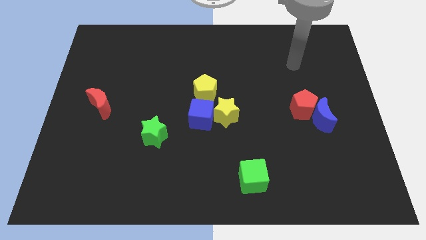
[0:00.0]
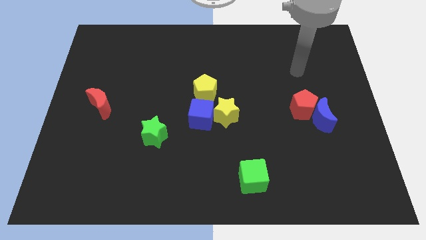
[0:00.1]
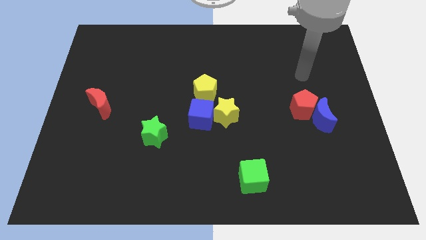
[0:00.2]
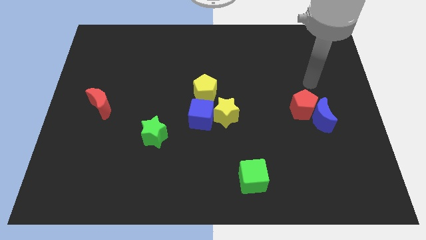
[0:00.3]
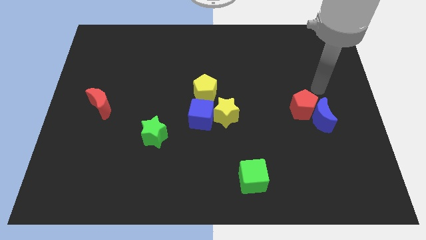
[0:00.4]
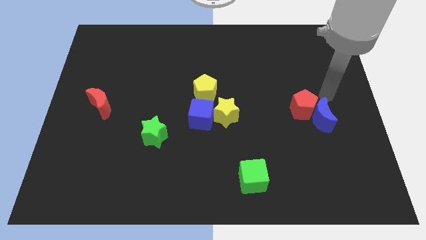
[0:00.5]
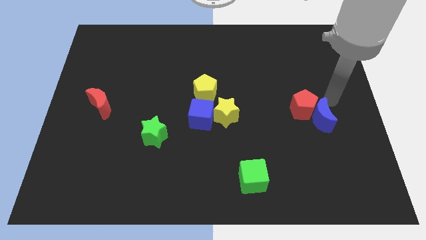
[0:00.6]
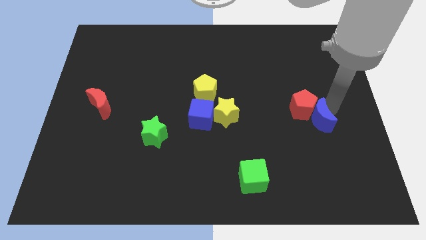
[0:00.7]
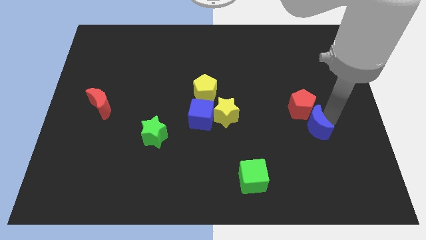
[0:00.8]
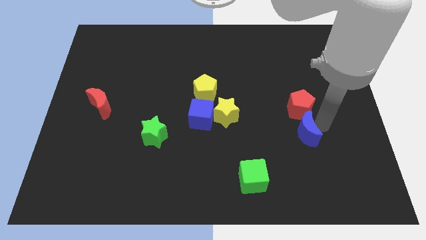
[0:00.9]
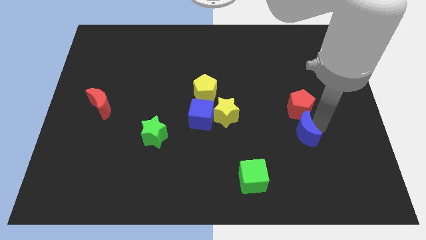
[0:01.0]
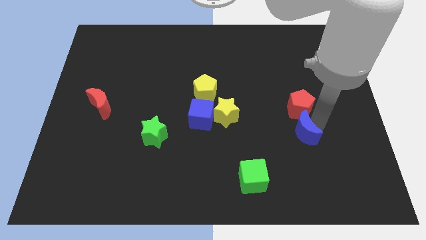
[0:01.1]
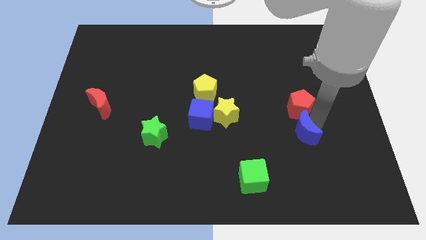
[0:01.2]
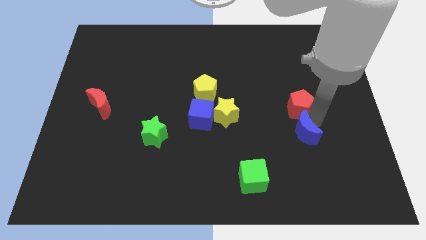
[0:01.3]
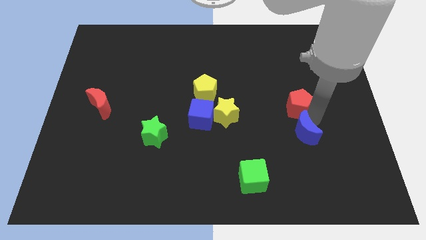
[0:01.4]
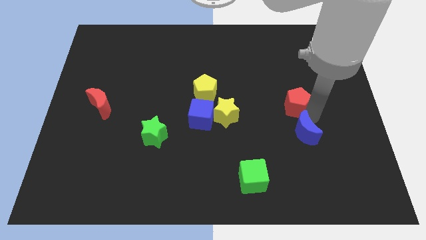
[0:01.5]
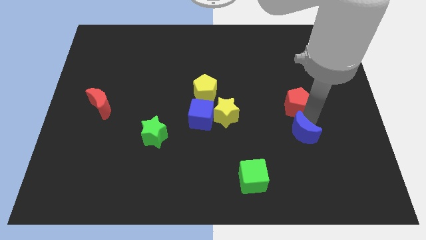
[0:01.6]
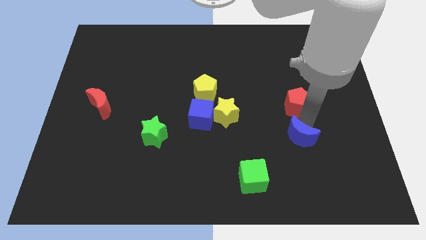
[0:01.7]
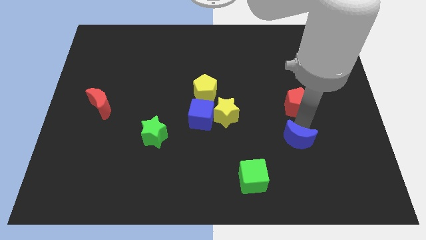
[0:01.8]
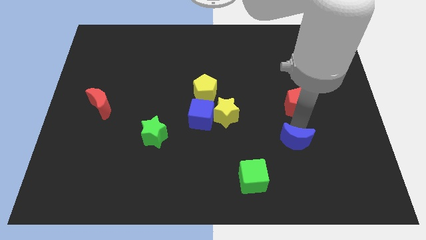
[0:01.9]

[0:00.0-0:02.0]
pull the red pentagon apart from the blue moon

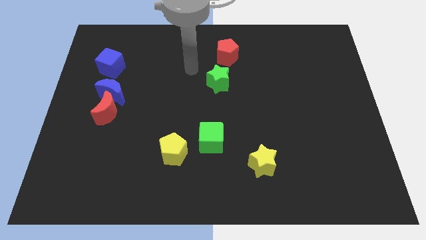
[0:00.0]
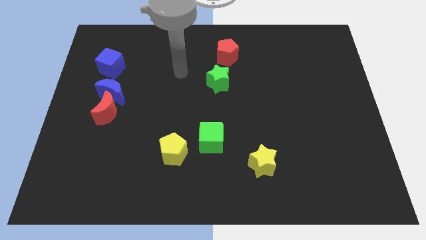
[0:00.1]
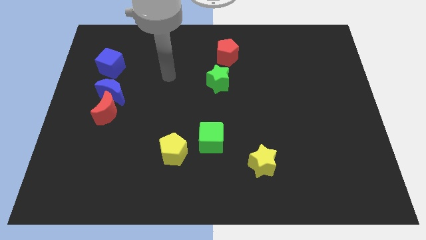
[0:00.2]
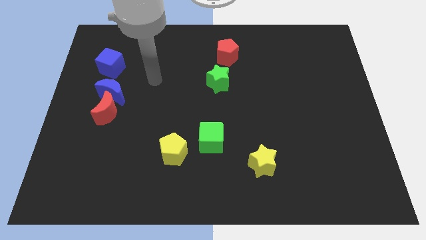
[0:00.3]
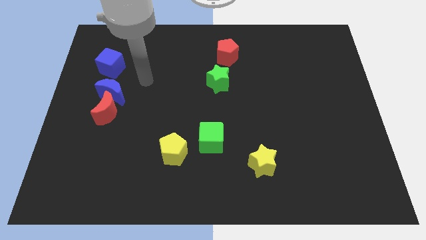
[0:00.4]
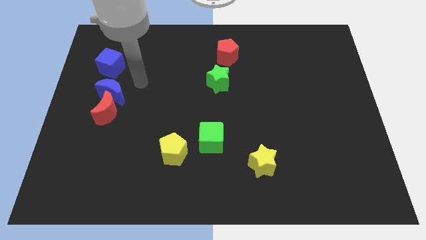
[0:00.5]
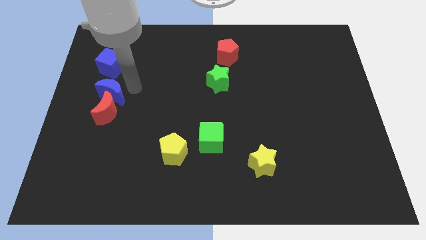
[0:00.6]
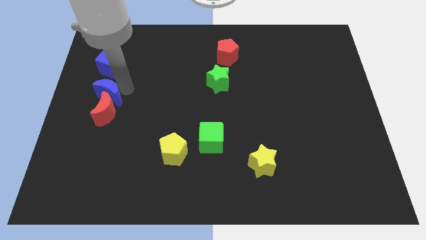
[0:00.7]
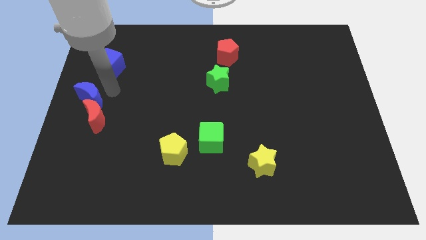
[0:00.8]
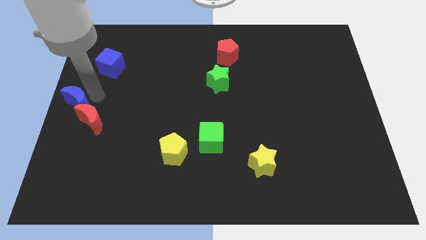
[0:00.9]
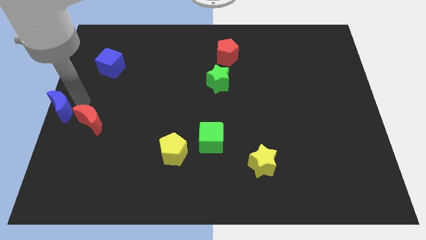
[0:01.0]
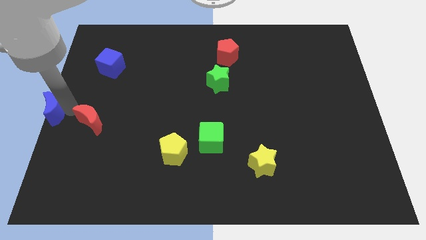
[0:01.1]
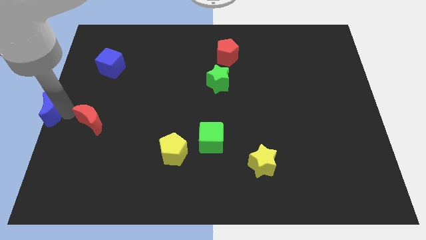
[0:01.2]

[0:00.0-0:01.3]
separate the red moon from the blue moon

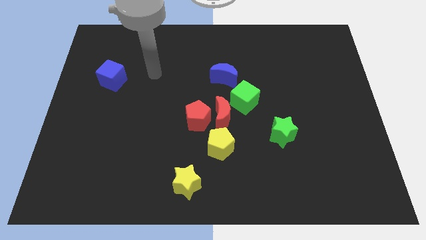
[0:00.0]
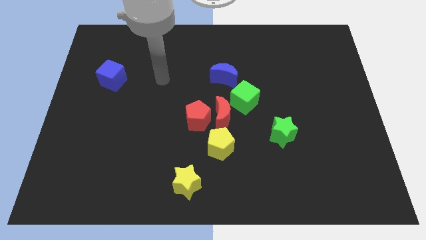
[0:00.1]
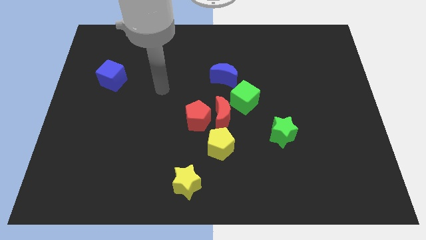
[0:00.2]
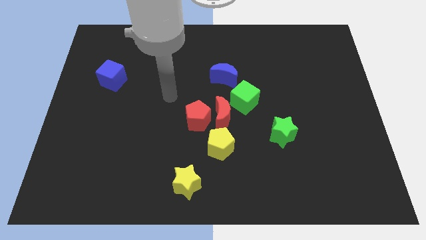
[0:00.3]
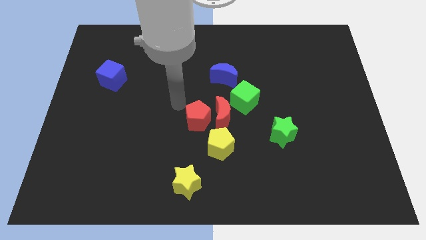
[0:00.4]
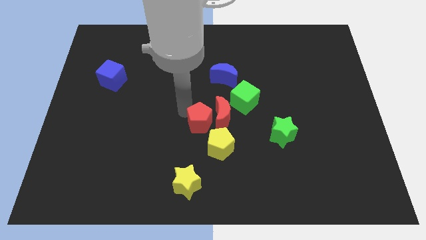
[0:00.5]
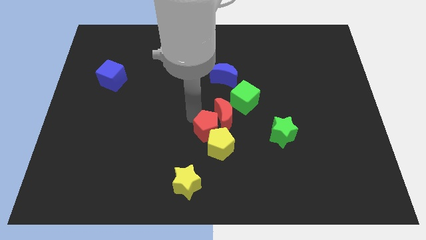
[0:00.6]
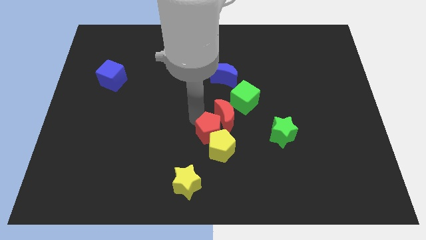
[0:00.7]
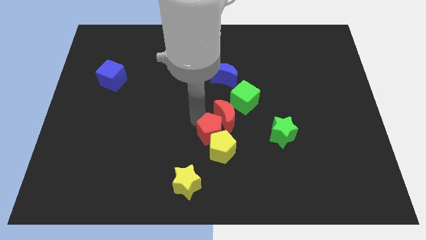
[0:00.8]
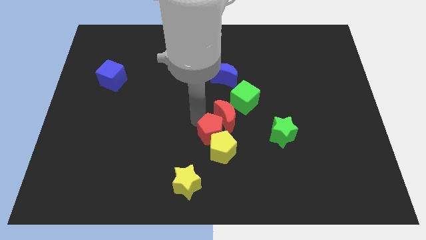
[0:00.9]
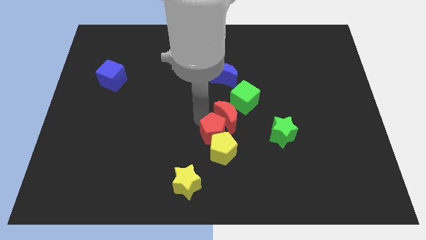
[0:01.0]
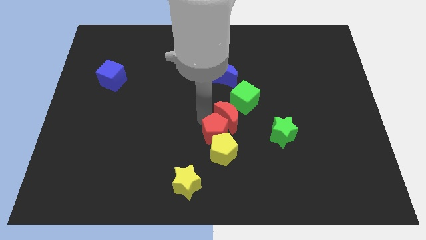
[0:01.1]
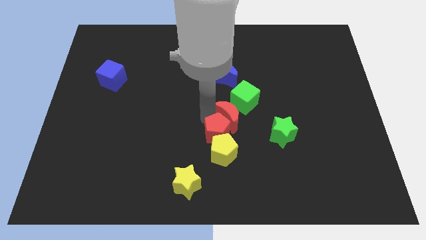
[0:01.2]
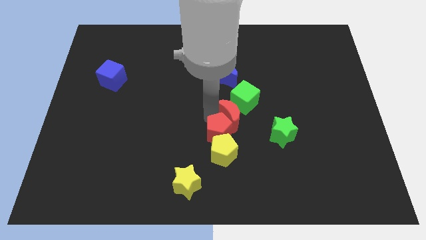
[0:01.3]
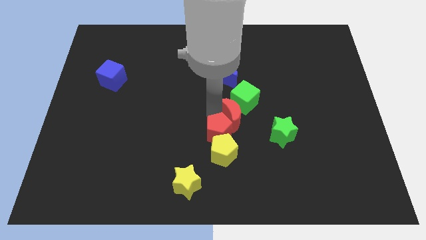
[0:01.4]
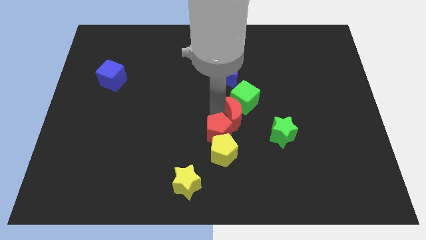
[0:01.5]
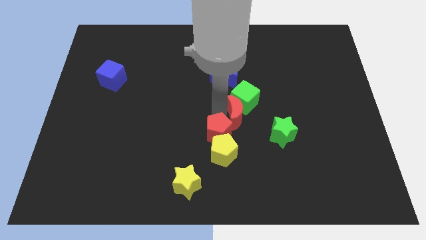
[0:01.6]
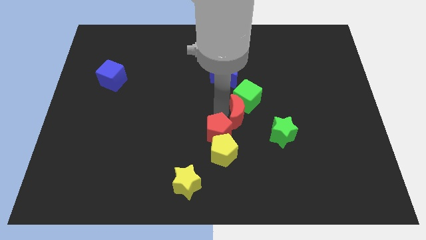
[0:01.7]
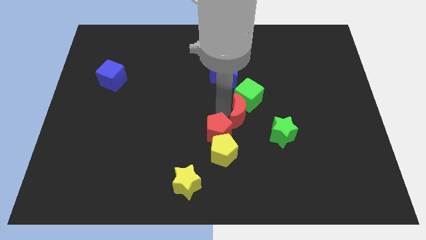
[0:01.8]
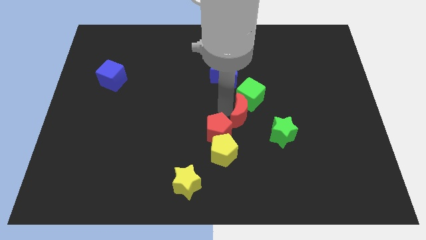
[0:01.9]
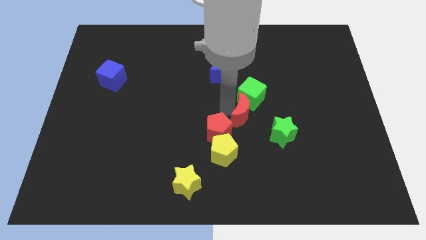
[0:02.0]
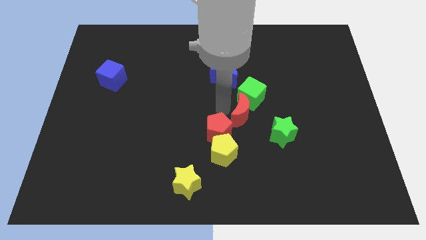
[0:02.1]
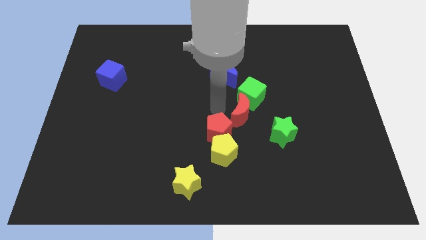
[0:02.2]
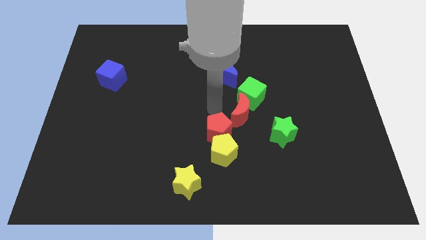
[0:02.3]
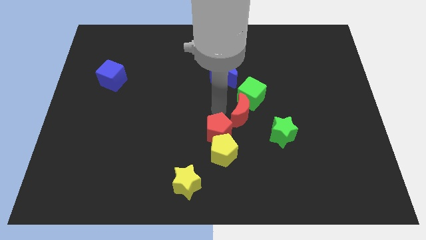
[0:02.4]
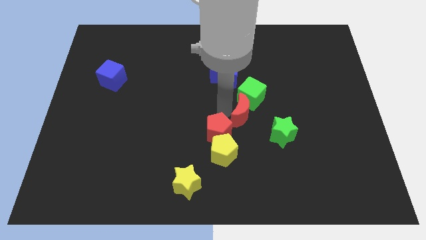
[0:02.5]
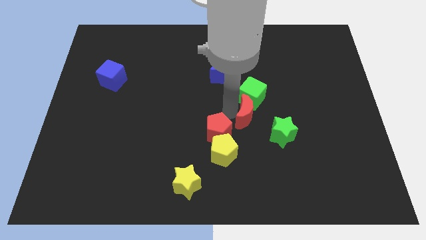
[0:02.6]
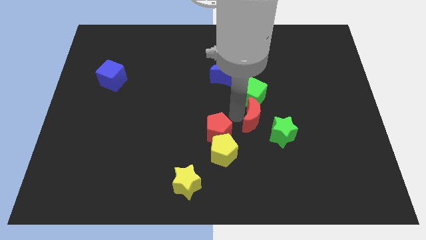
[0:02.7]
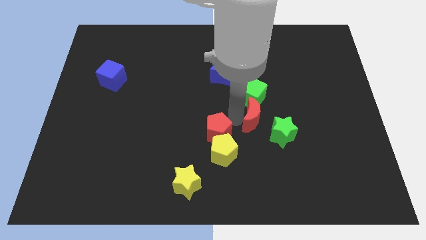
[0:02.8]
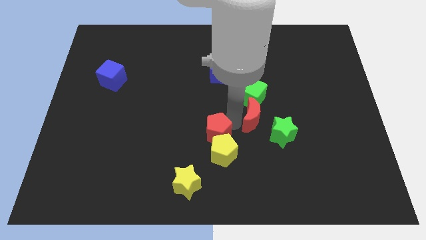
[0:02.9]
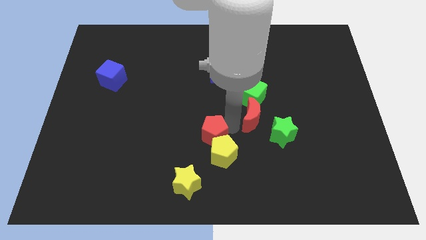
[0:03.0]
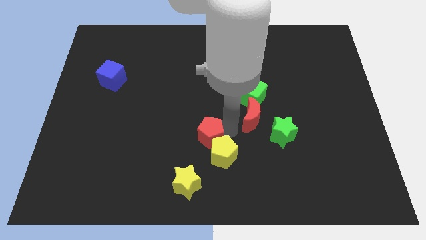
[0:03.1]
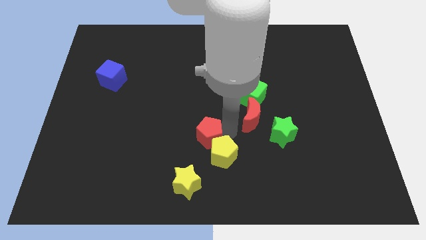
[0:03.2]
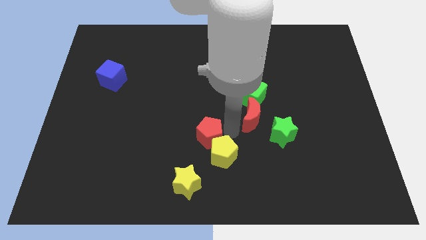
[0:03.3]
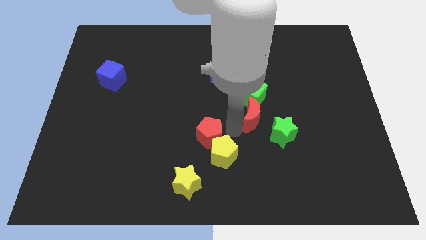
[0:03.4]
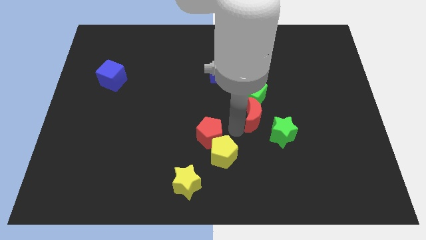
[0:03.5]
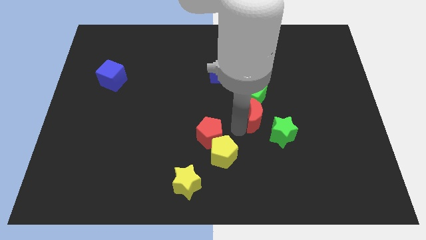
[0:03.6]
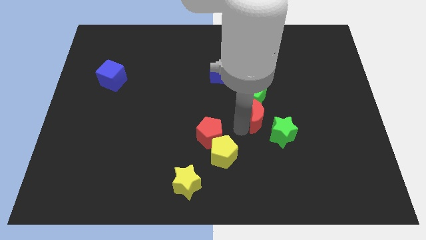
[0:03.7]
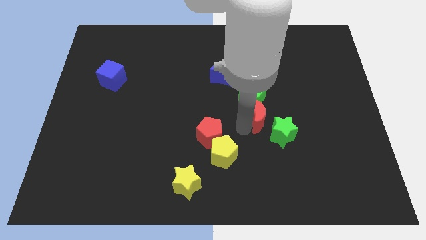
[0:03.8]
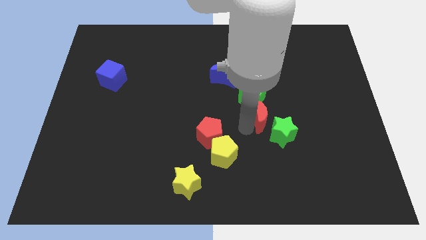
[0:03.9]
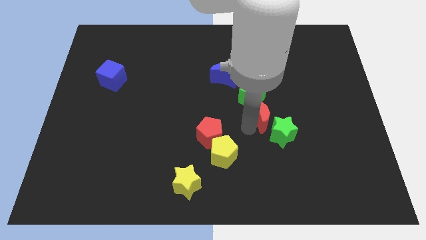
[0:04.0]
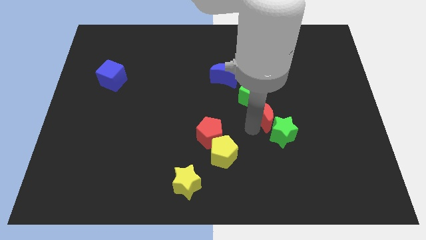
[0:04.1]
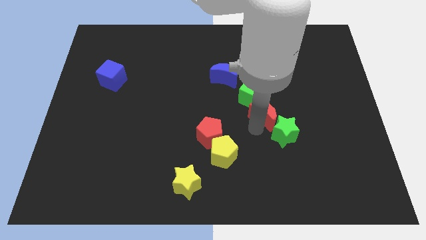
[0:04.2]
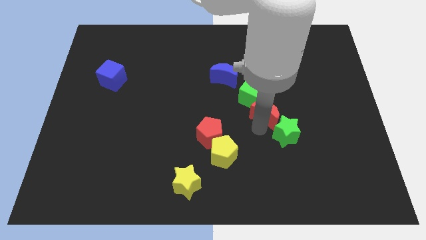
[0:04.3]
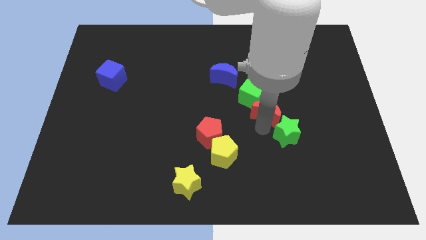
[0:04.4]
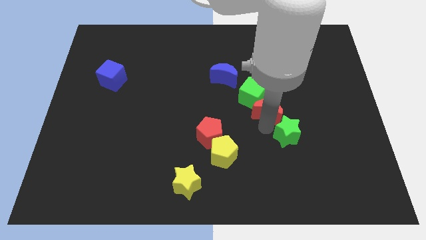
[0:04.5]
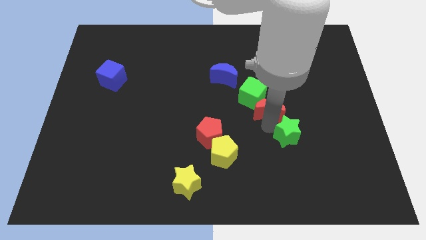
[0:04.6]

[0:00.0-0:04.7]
separate the red moon from the group

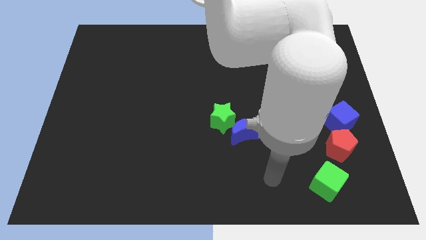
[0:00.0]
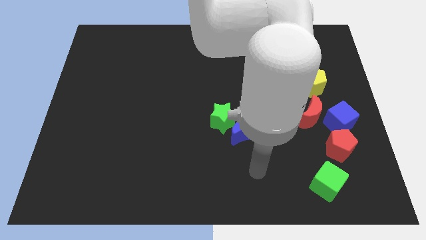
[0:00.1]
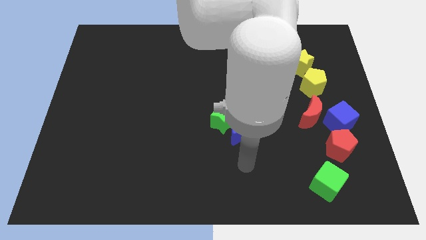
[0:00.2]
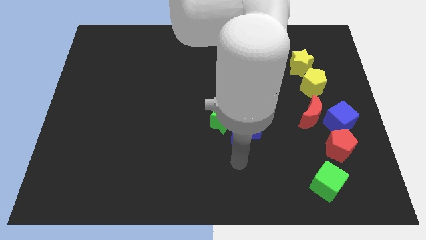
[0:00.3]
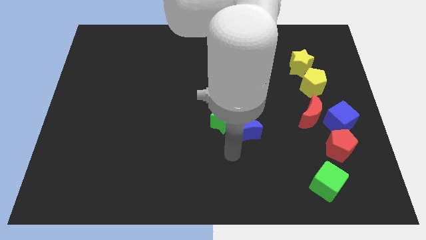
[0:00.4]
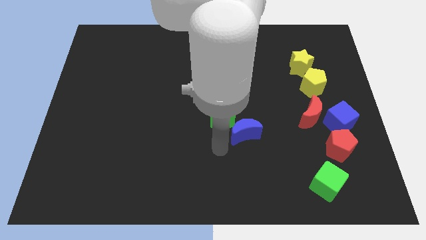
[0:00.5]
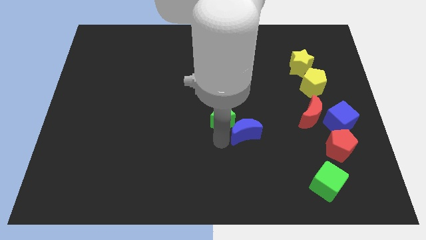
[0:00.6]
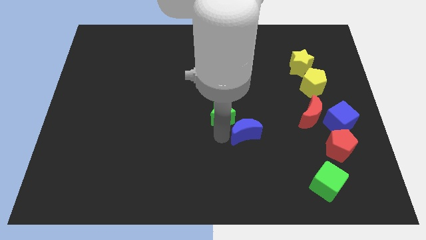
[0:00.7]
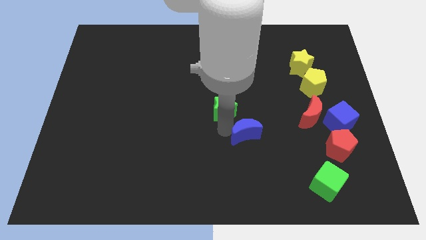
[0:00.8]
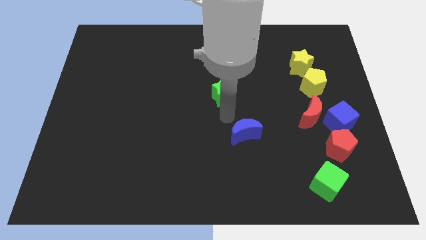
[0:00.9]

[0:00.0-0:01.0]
pull the blue moon apart from the green star

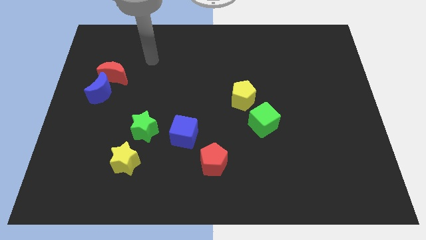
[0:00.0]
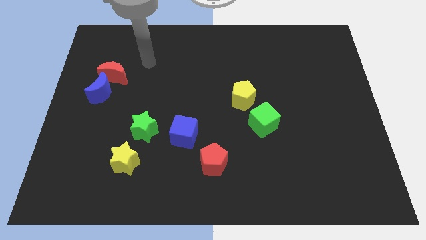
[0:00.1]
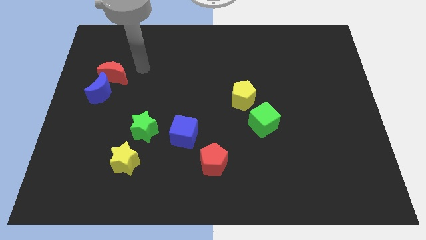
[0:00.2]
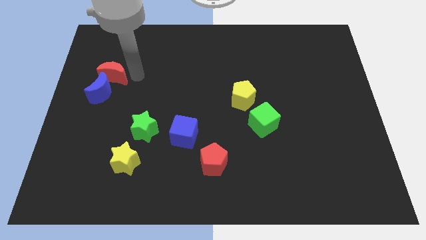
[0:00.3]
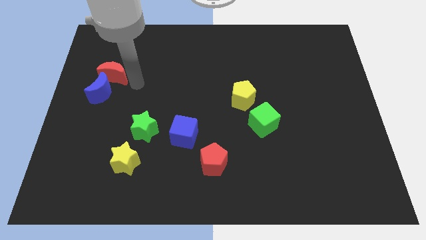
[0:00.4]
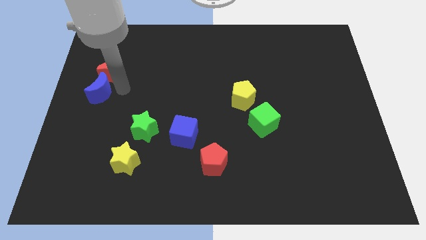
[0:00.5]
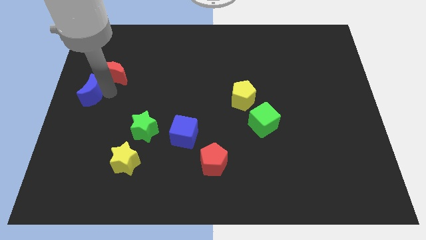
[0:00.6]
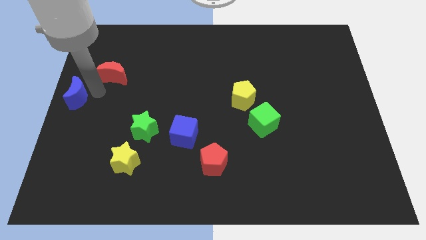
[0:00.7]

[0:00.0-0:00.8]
pull the red moon apart from the blue moon
